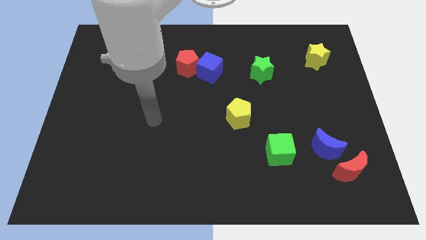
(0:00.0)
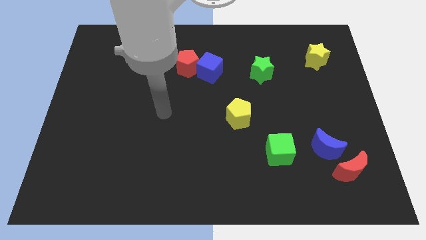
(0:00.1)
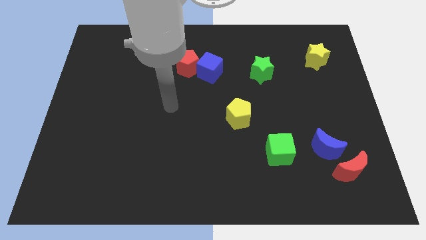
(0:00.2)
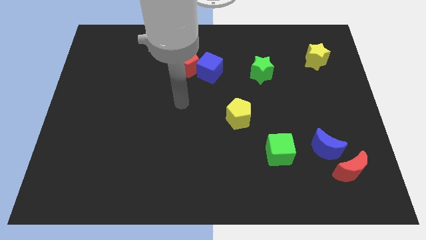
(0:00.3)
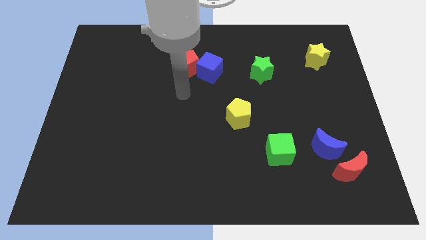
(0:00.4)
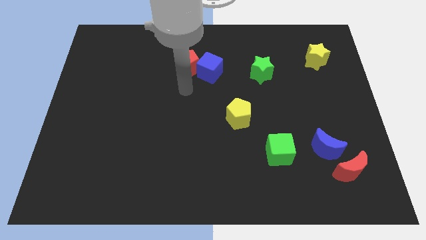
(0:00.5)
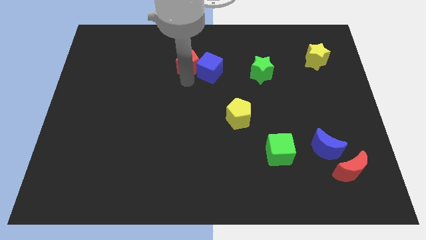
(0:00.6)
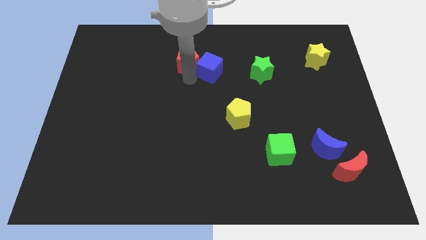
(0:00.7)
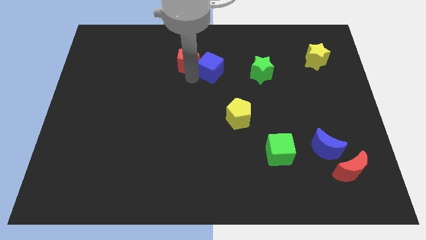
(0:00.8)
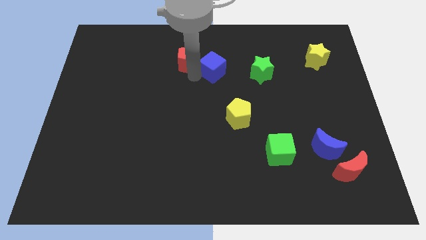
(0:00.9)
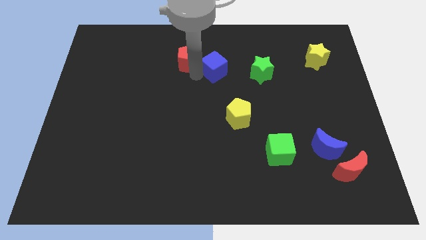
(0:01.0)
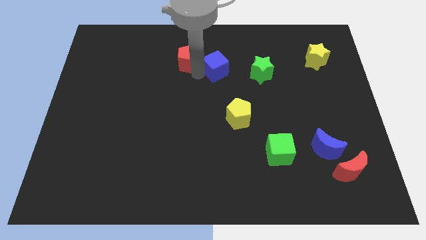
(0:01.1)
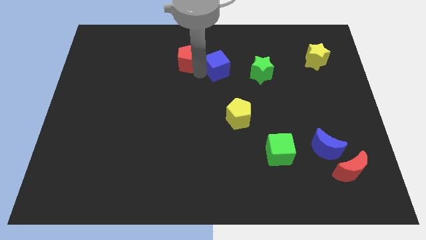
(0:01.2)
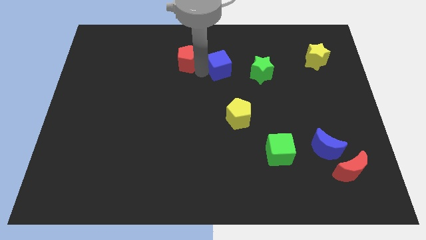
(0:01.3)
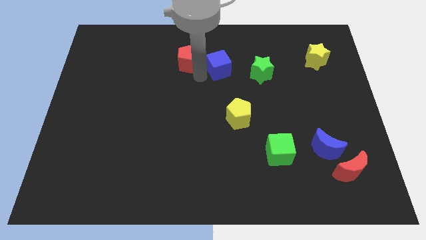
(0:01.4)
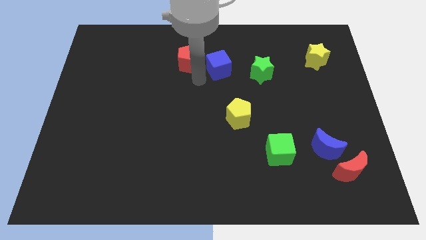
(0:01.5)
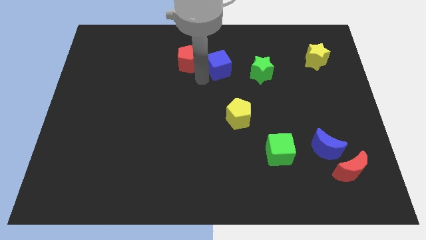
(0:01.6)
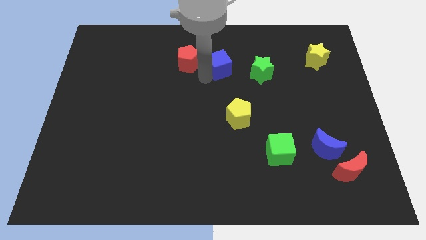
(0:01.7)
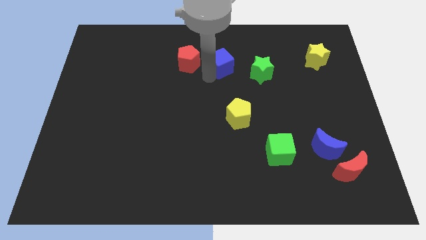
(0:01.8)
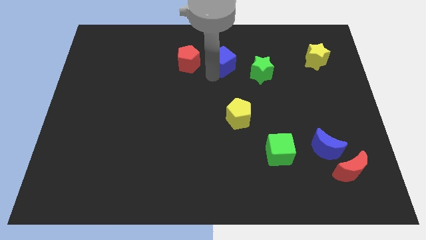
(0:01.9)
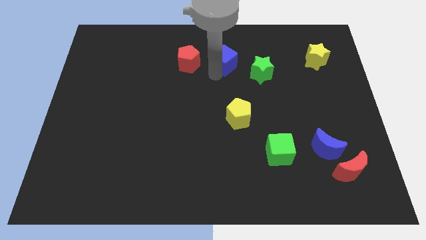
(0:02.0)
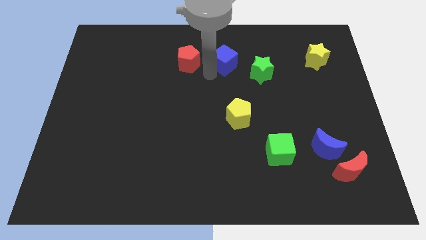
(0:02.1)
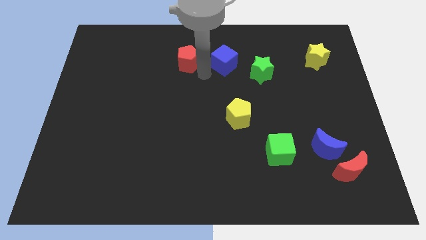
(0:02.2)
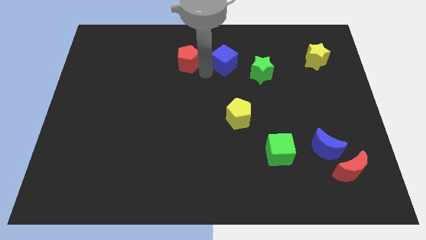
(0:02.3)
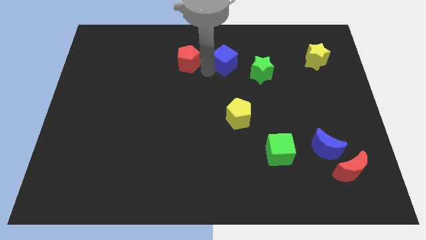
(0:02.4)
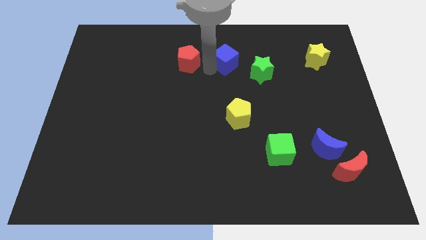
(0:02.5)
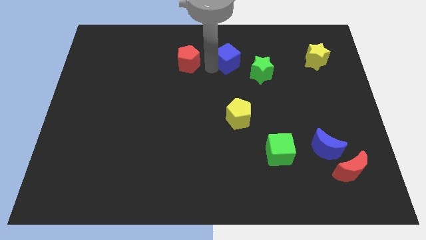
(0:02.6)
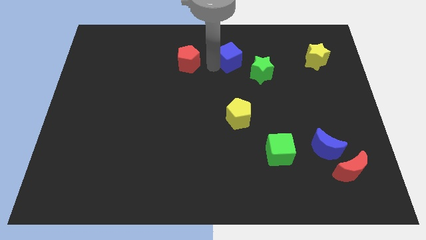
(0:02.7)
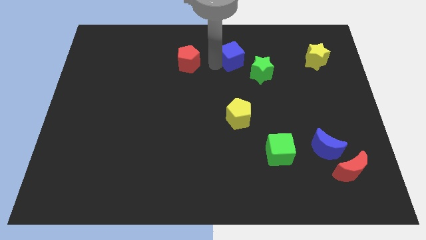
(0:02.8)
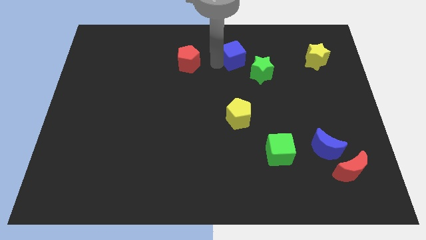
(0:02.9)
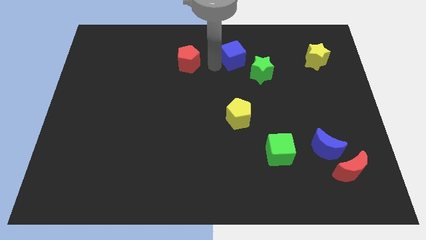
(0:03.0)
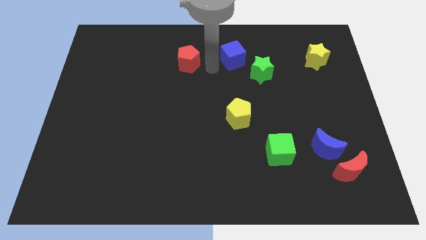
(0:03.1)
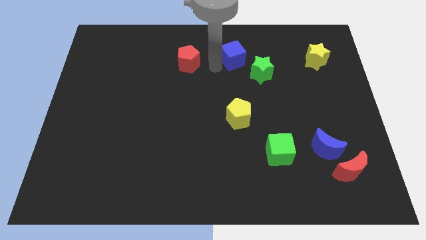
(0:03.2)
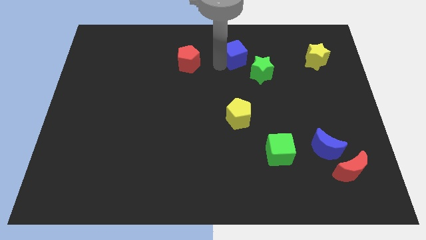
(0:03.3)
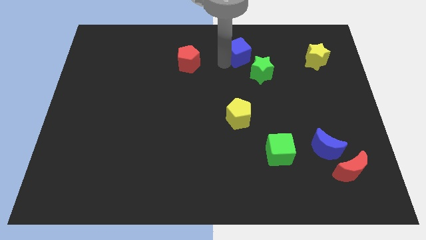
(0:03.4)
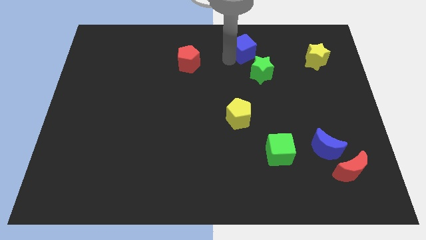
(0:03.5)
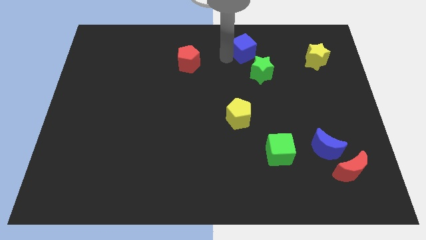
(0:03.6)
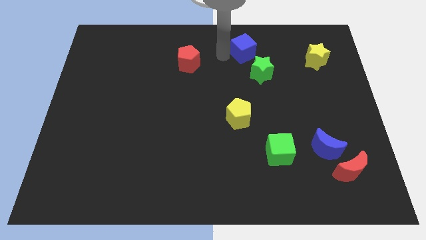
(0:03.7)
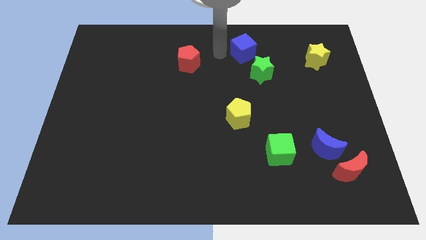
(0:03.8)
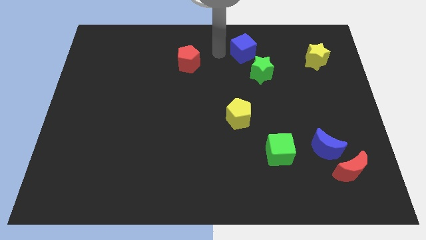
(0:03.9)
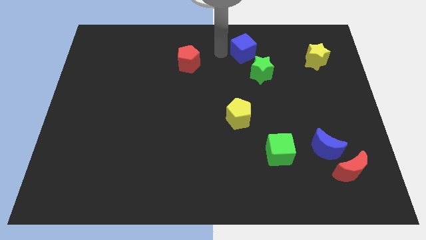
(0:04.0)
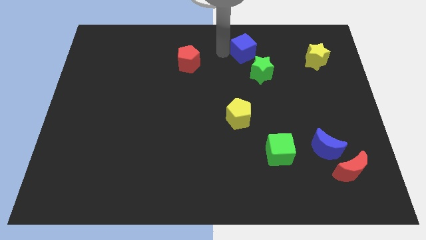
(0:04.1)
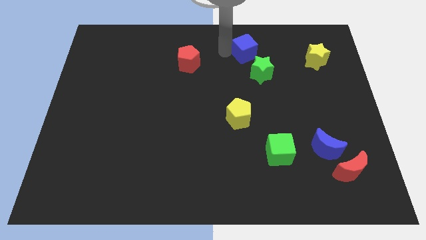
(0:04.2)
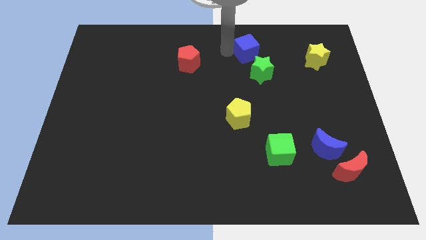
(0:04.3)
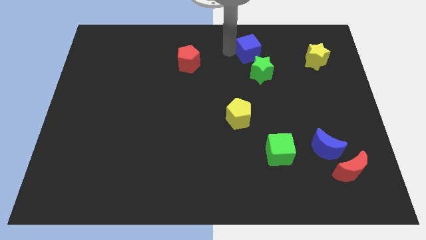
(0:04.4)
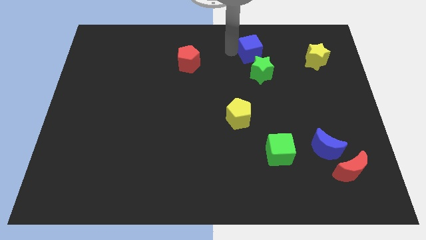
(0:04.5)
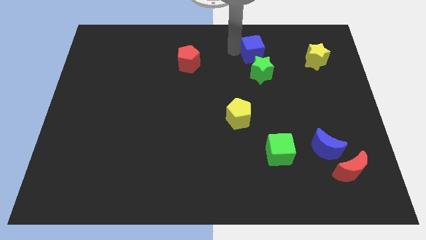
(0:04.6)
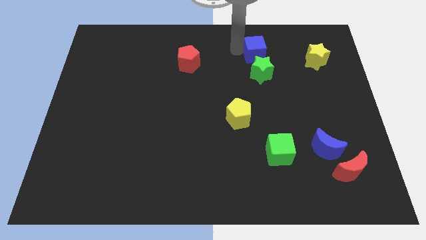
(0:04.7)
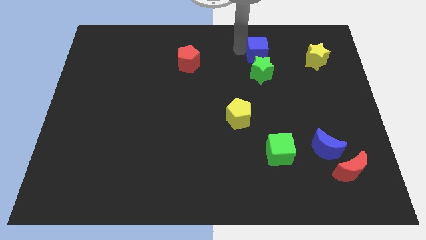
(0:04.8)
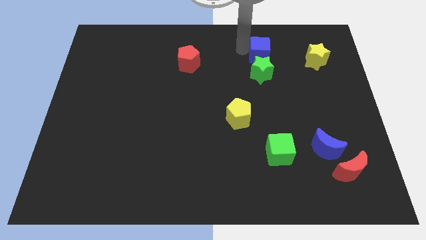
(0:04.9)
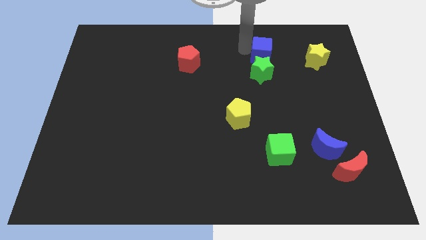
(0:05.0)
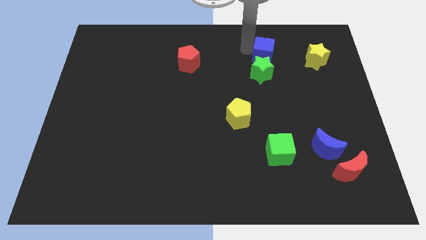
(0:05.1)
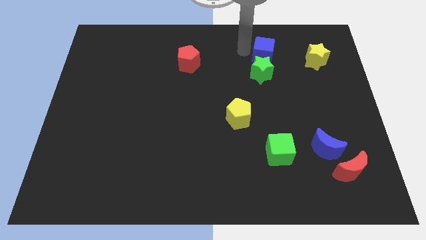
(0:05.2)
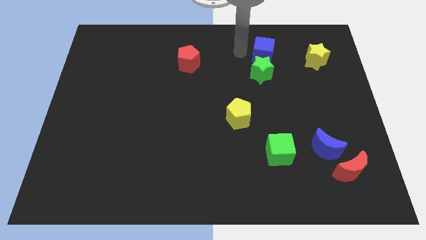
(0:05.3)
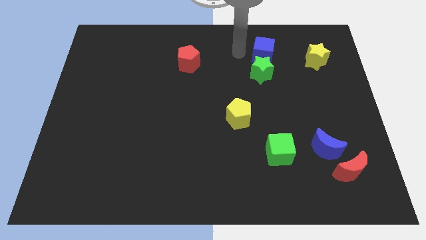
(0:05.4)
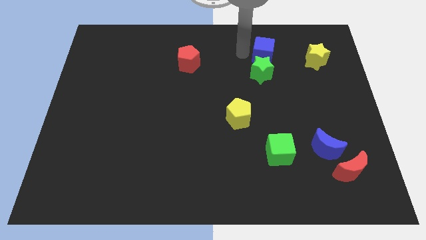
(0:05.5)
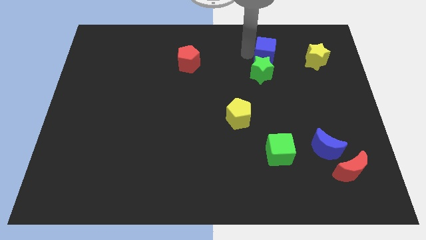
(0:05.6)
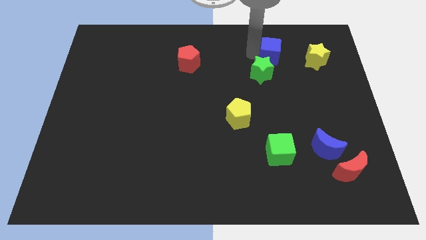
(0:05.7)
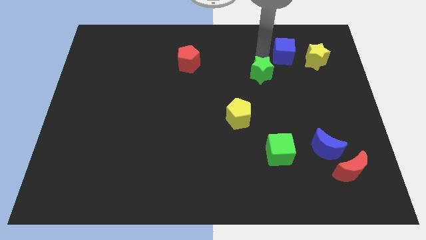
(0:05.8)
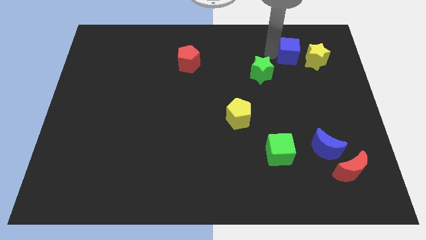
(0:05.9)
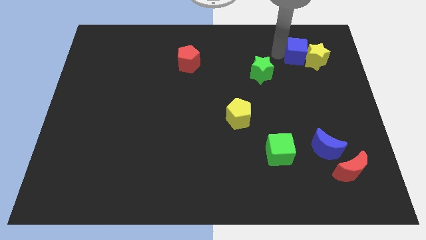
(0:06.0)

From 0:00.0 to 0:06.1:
push the blue cube next to the yellow star
